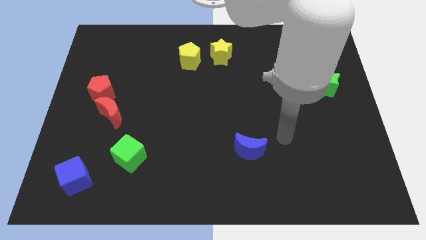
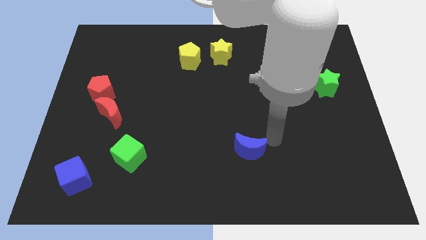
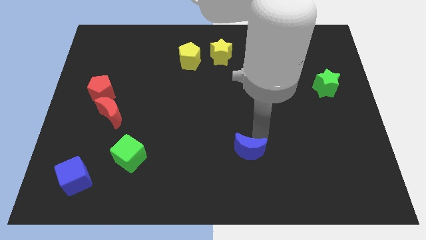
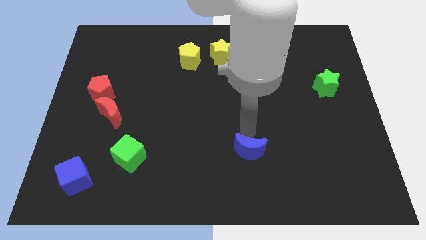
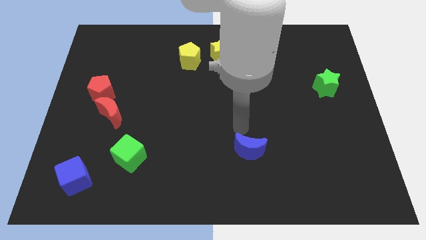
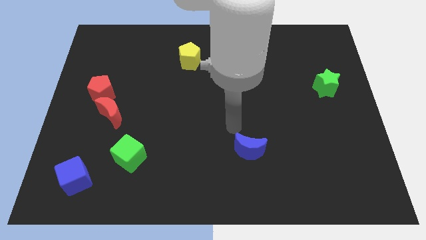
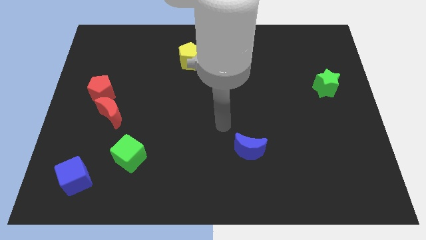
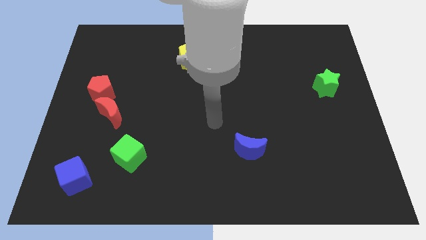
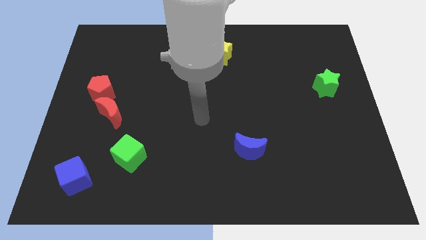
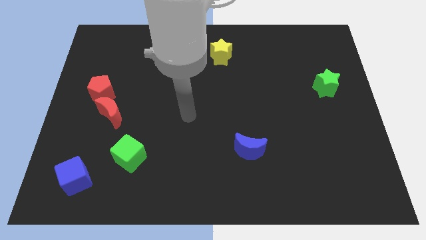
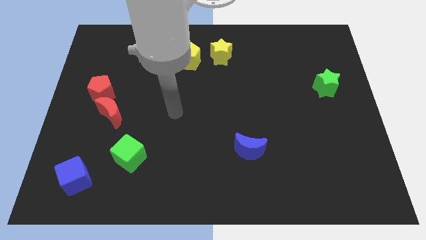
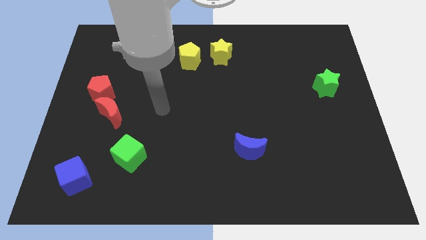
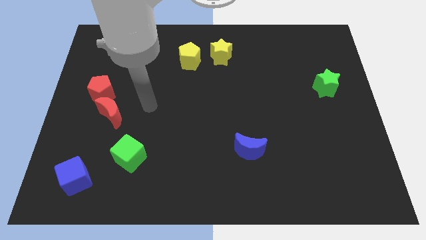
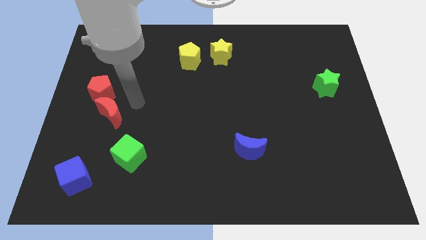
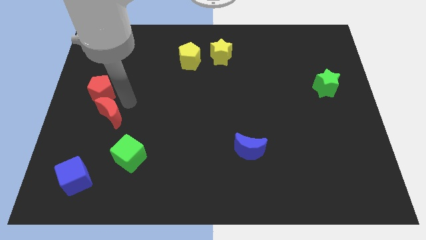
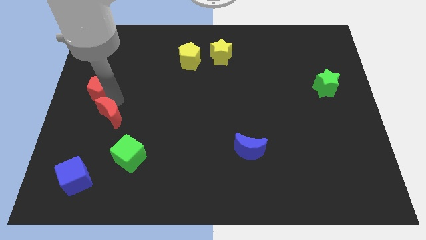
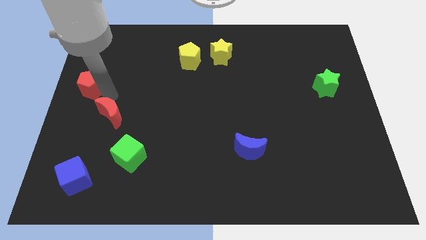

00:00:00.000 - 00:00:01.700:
pull the red moon apart from the red pentagon

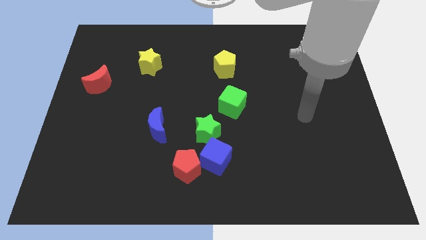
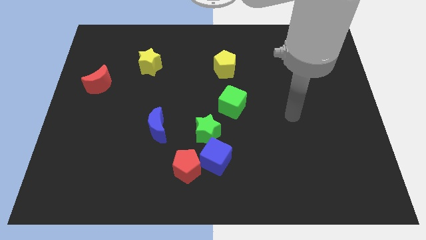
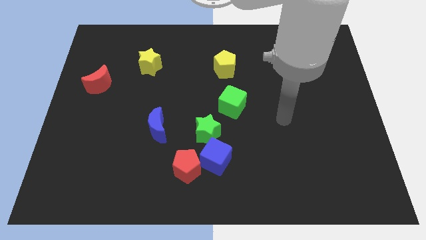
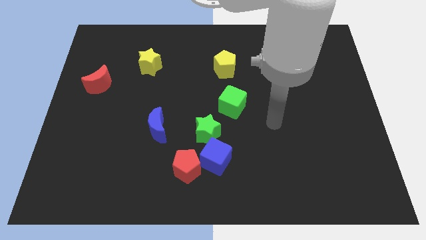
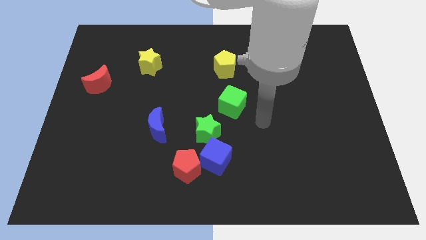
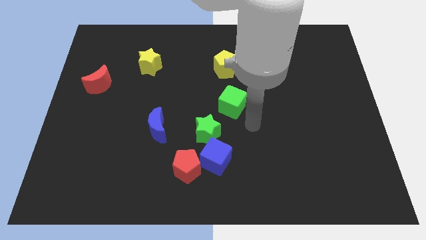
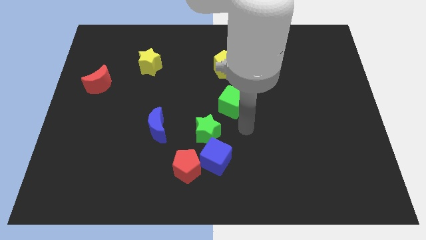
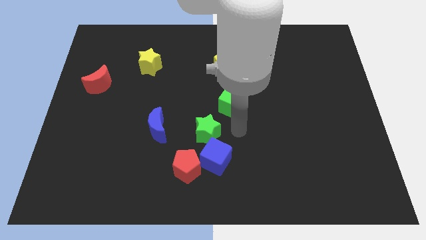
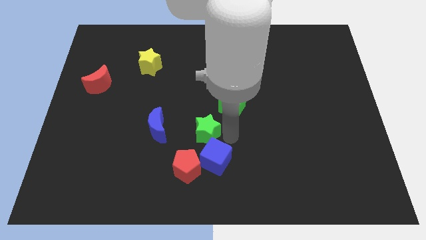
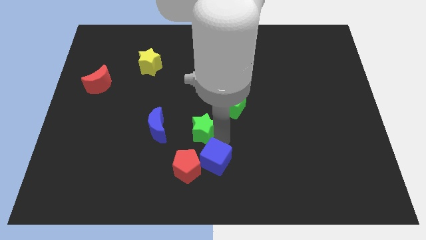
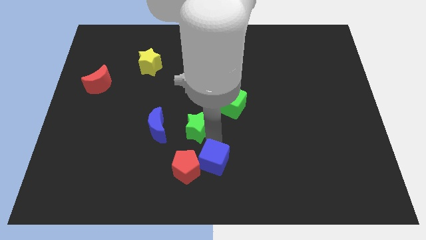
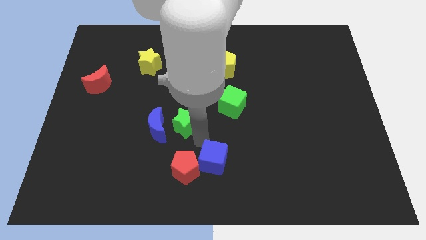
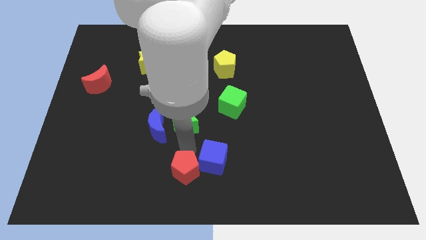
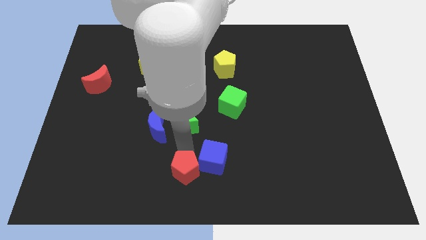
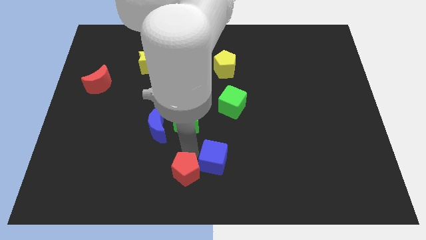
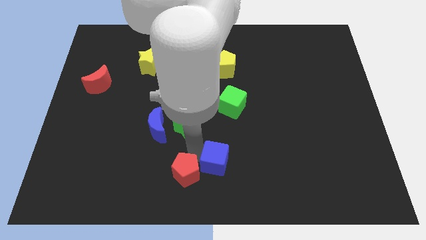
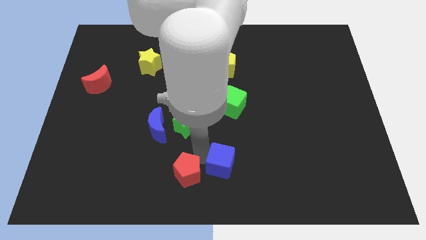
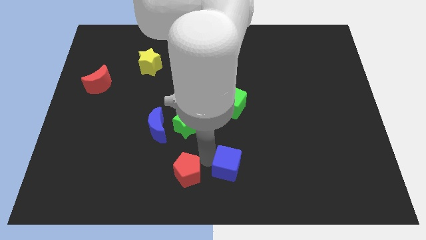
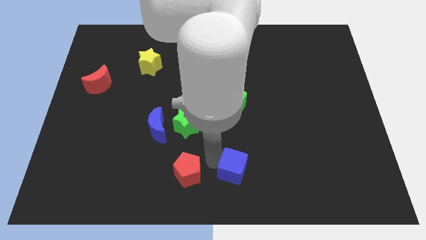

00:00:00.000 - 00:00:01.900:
pull the blue cube apart from the red pentagon and green star

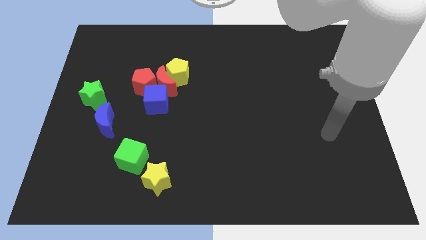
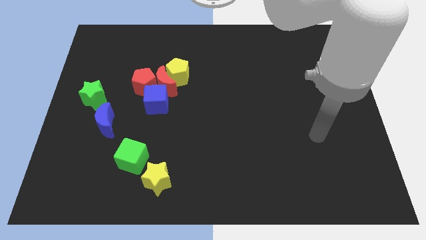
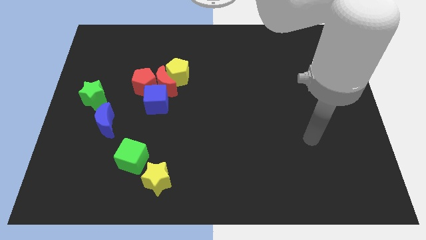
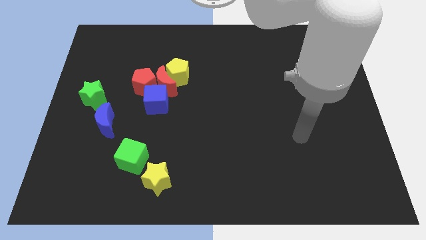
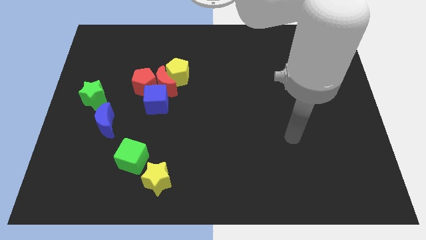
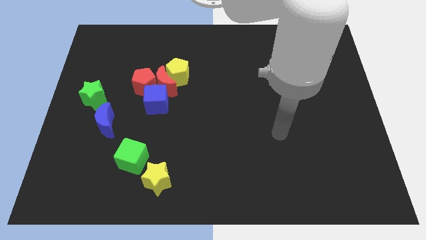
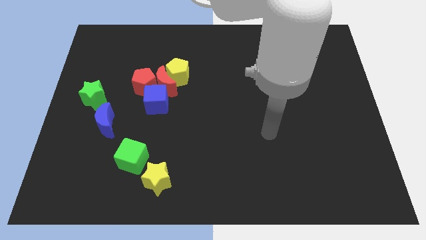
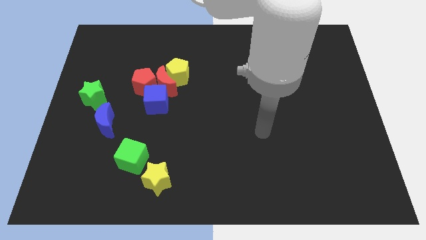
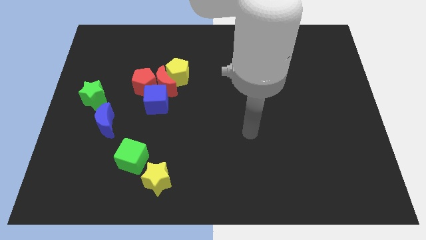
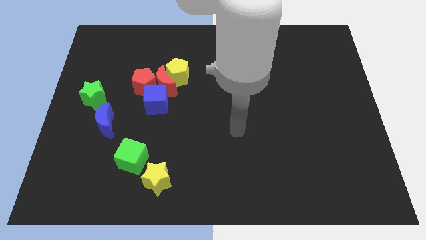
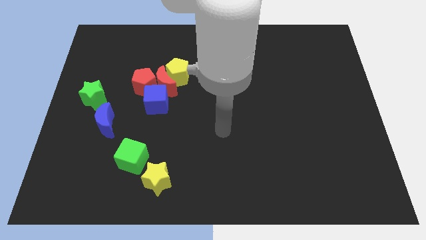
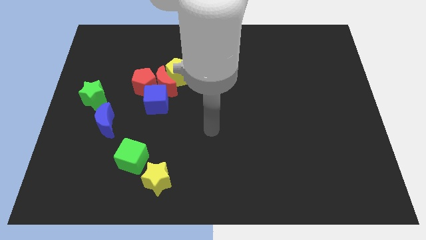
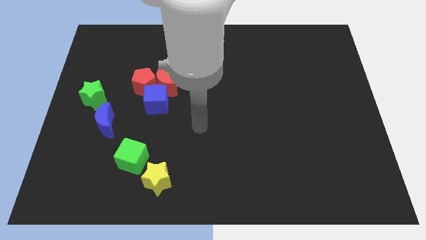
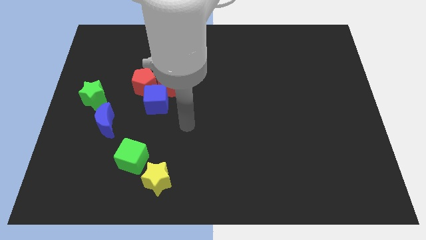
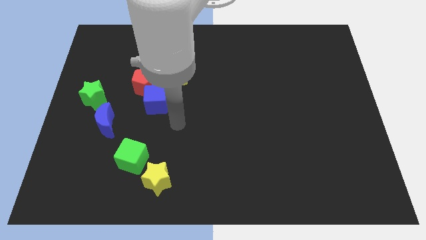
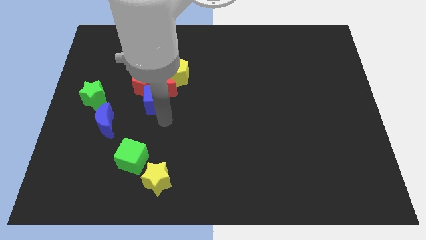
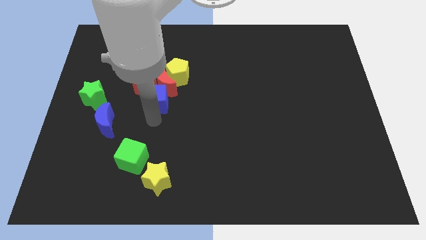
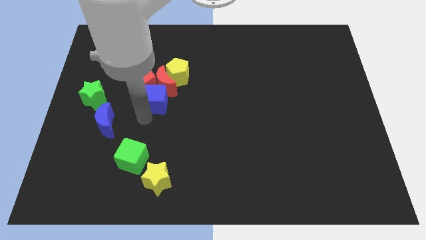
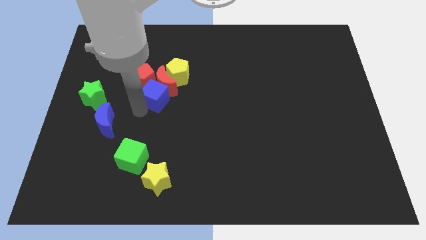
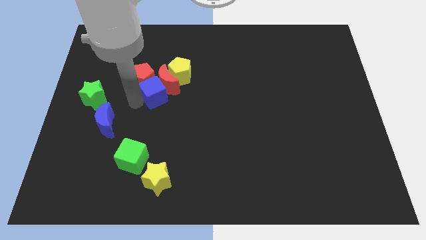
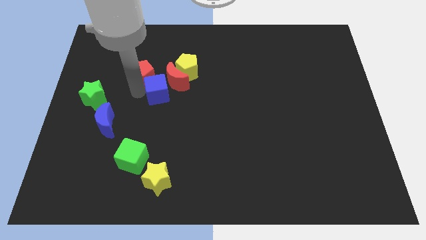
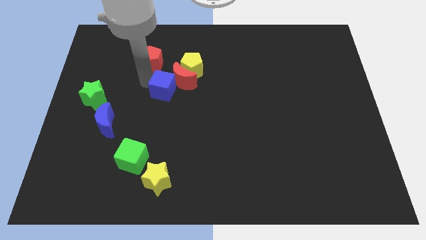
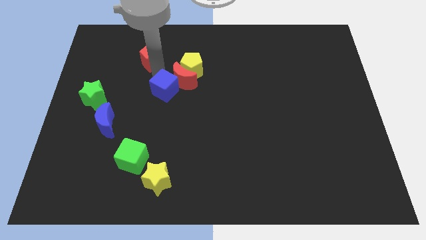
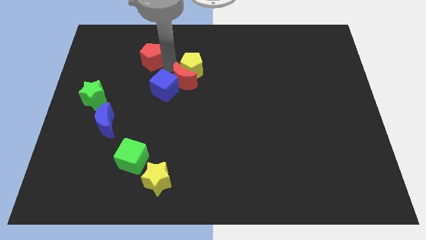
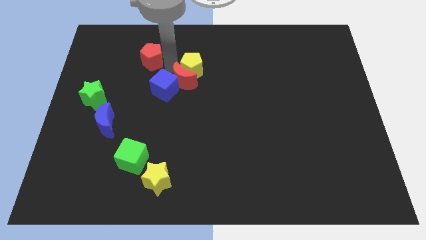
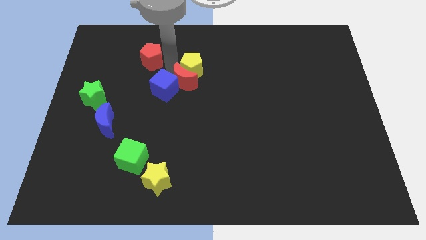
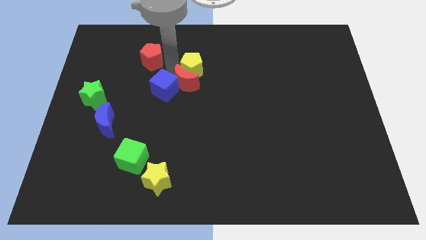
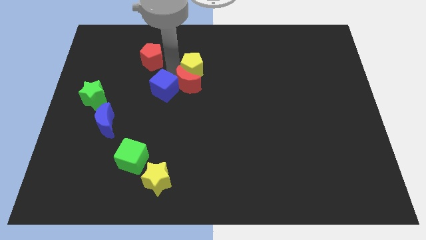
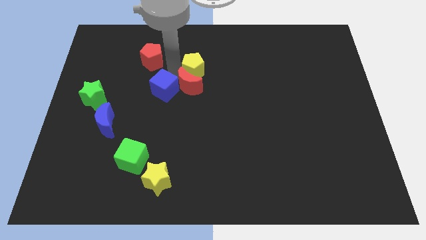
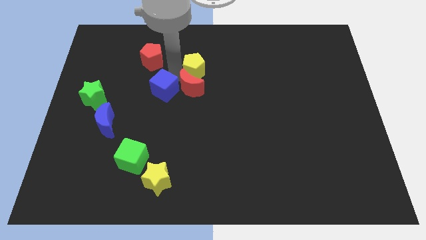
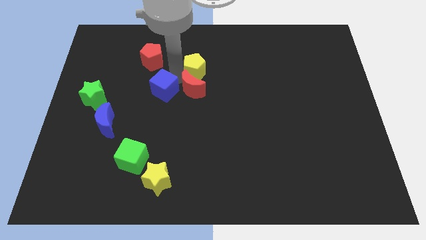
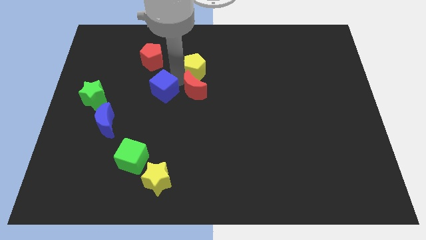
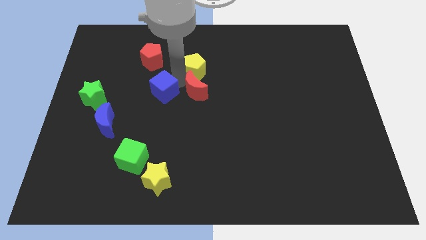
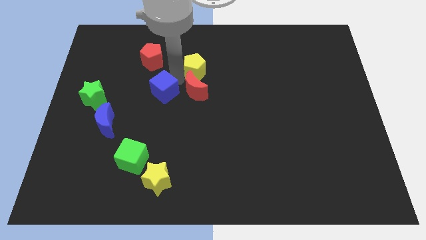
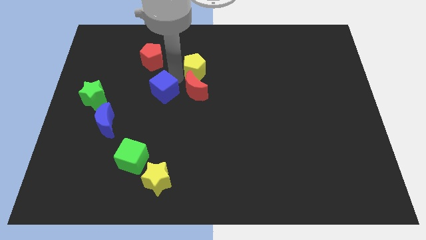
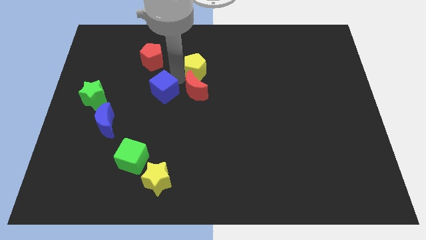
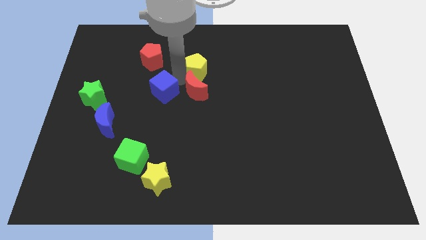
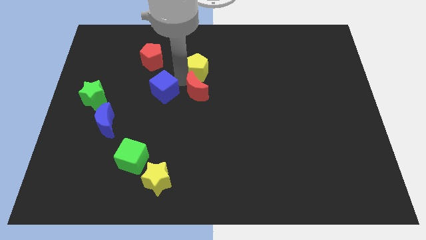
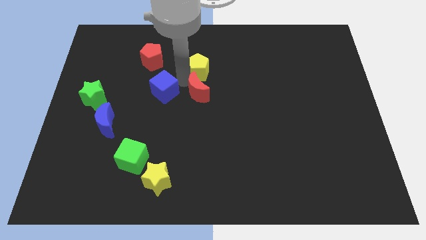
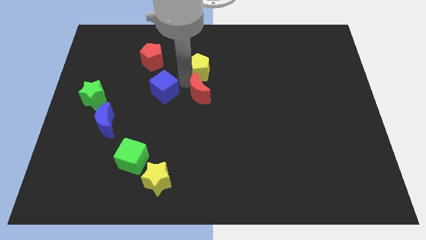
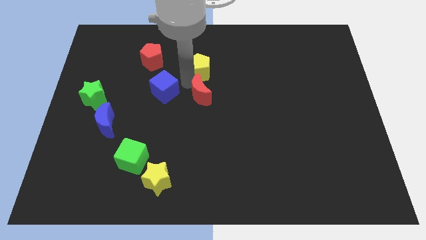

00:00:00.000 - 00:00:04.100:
move the red moon away from the yellow pentagon, red pentagon, and blue cube

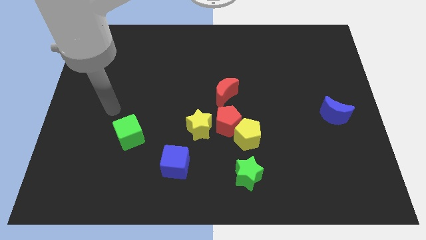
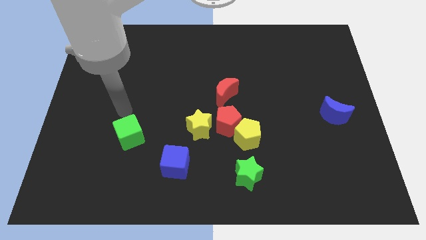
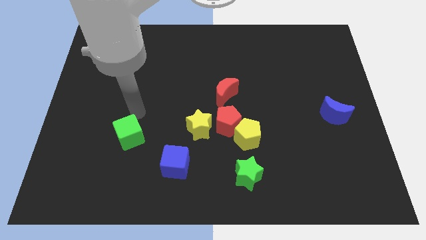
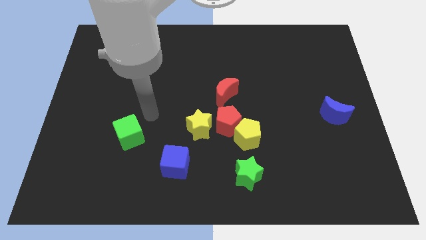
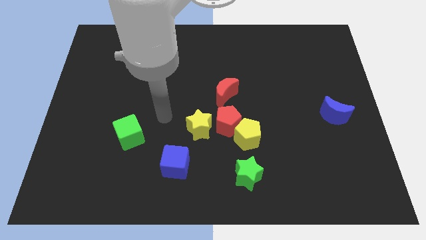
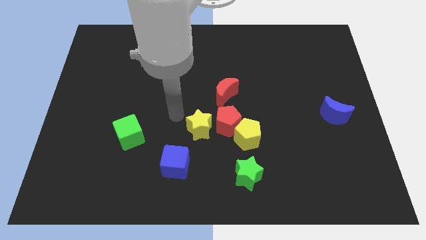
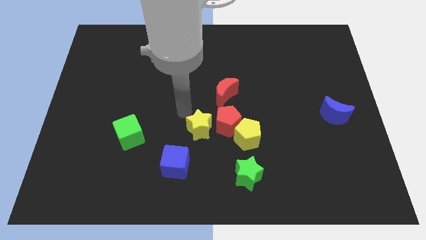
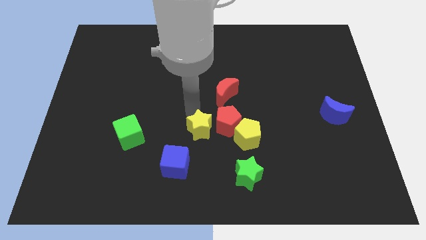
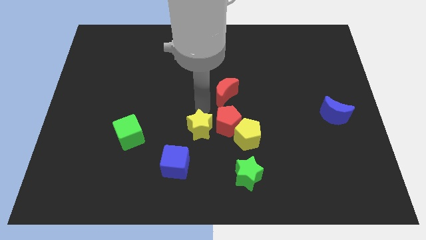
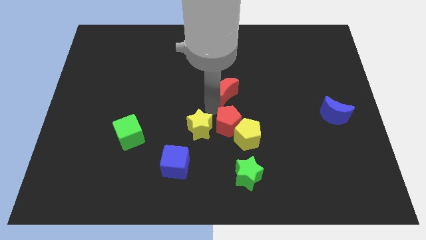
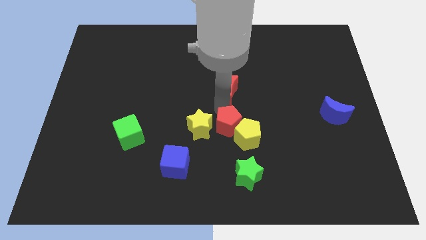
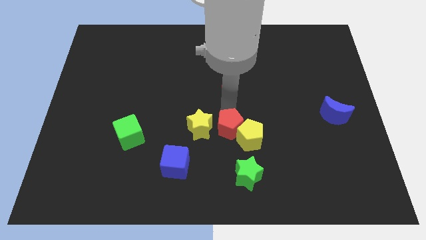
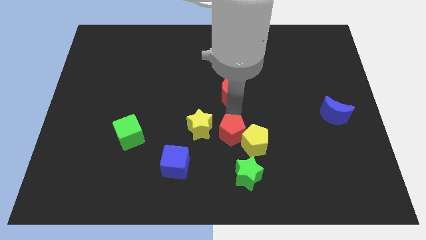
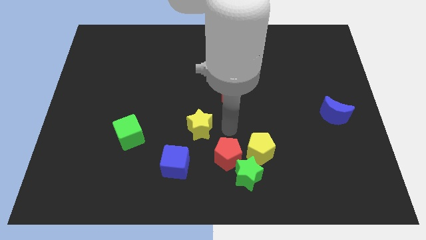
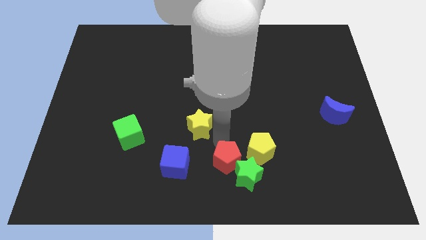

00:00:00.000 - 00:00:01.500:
move the yellow star away from the red pentagon

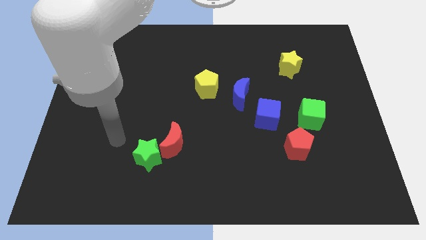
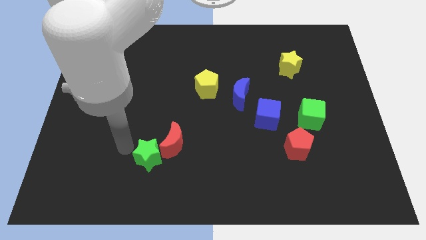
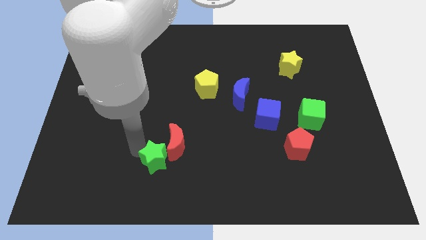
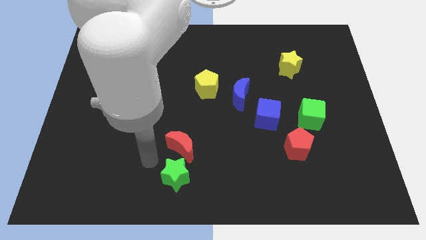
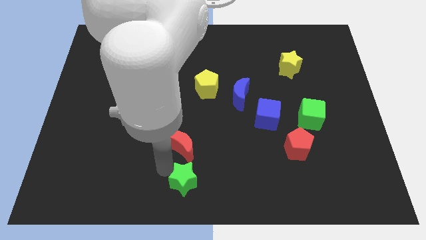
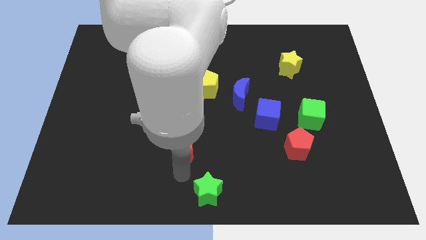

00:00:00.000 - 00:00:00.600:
move the red moon away from the green star
